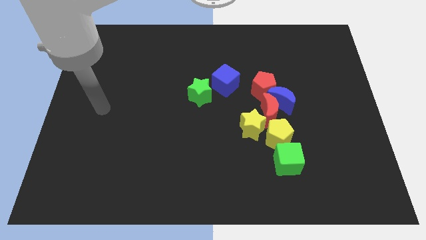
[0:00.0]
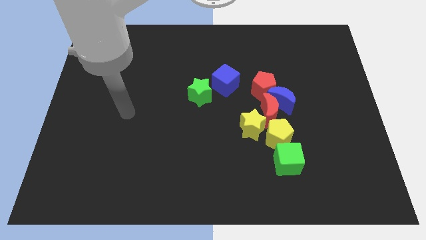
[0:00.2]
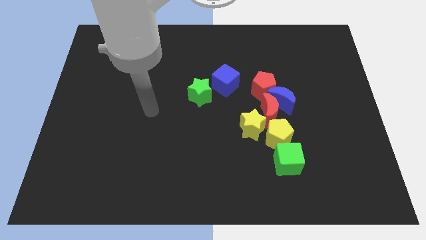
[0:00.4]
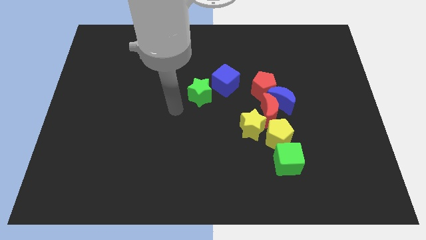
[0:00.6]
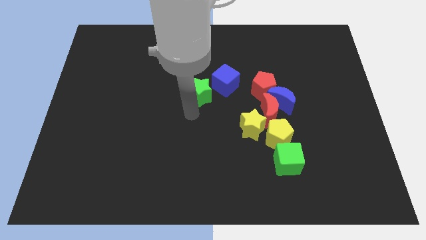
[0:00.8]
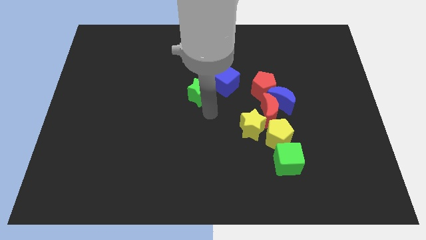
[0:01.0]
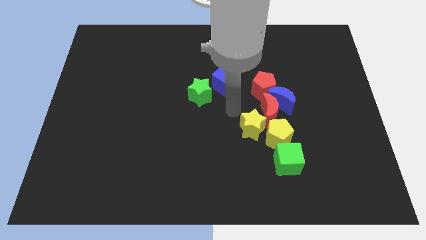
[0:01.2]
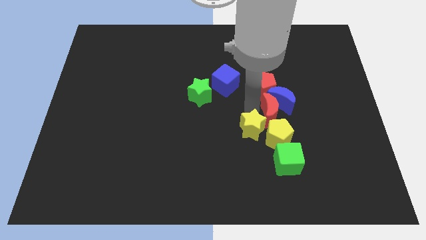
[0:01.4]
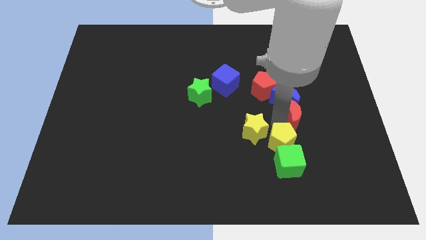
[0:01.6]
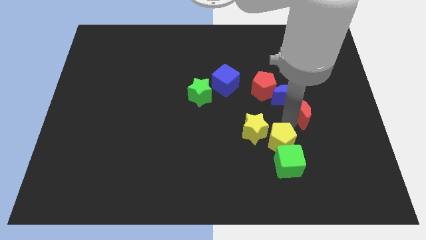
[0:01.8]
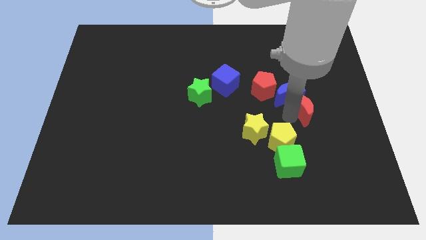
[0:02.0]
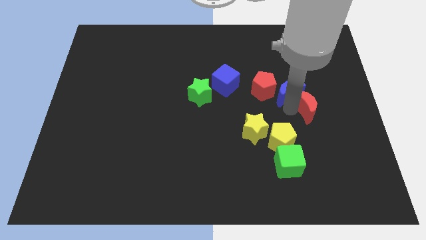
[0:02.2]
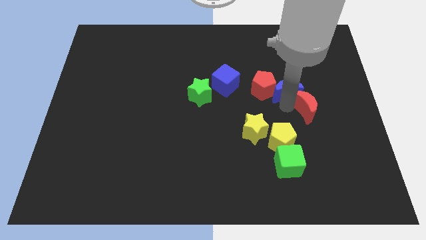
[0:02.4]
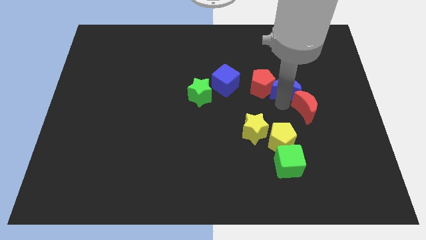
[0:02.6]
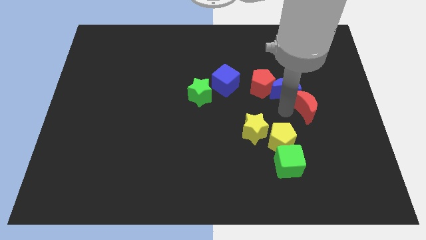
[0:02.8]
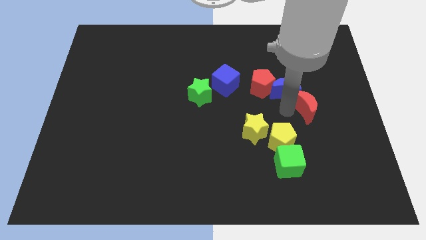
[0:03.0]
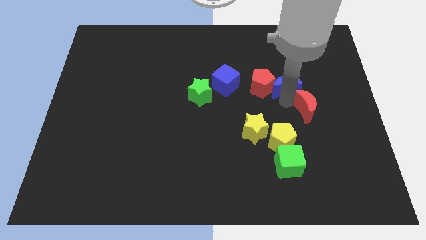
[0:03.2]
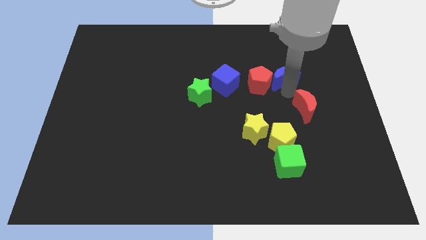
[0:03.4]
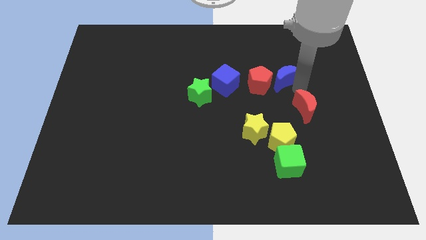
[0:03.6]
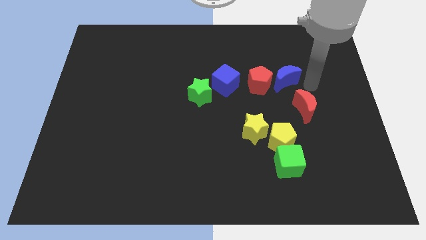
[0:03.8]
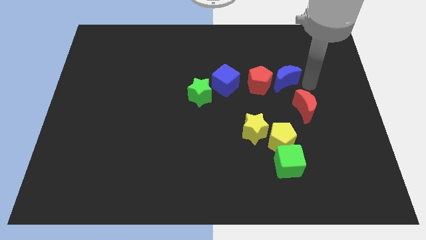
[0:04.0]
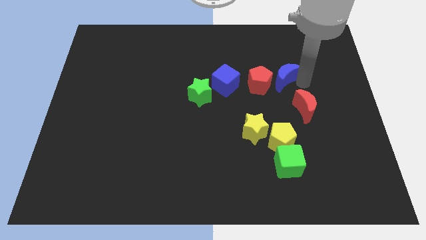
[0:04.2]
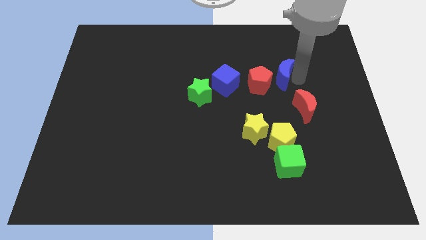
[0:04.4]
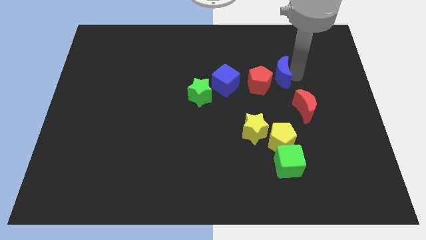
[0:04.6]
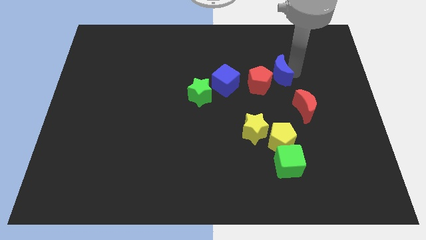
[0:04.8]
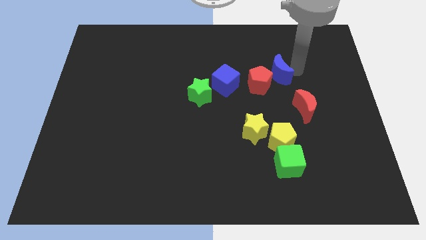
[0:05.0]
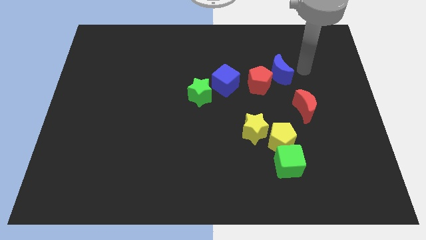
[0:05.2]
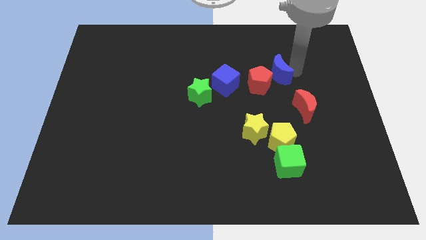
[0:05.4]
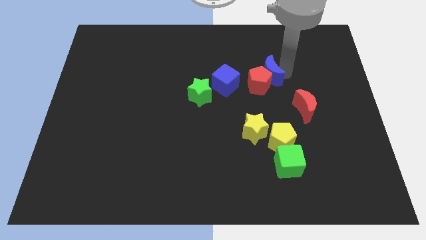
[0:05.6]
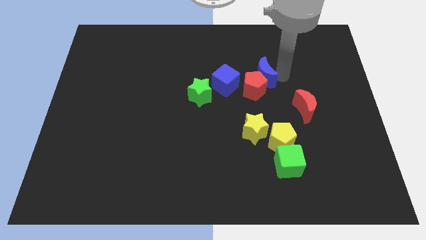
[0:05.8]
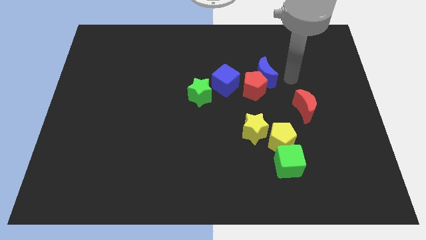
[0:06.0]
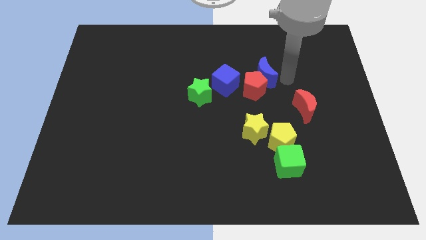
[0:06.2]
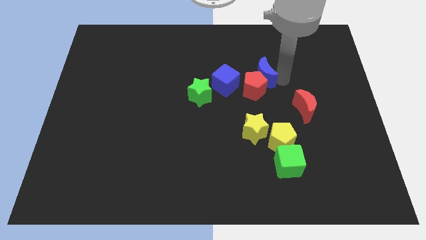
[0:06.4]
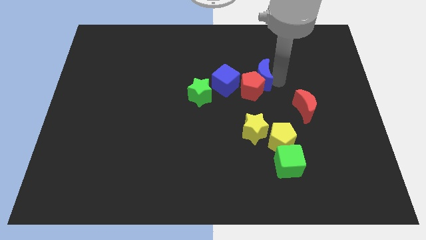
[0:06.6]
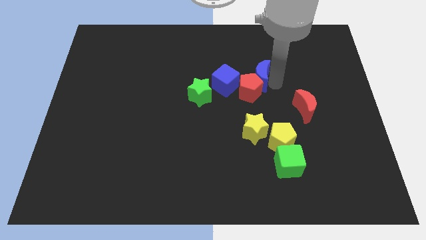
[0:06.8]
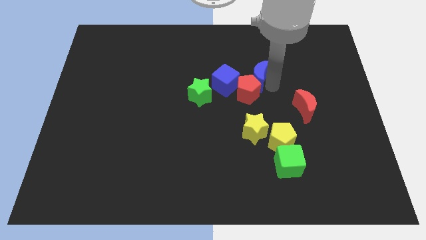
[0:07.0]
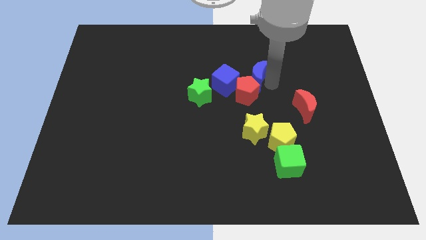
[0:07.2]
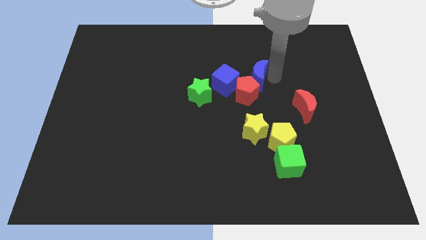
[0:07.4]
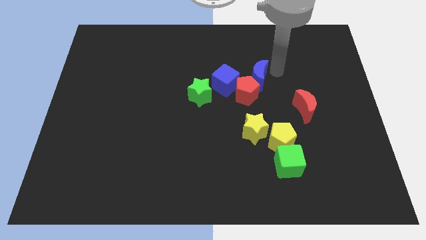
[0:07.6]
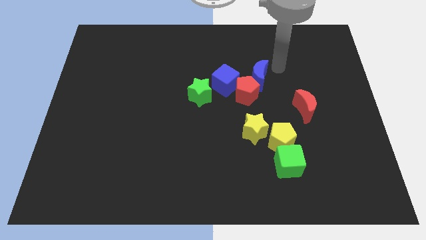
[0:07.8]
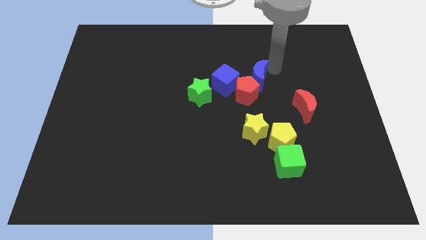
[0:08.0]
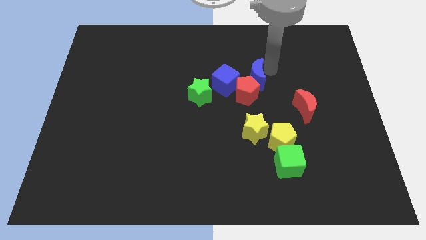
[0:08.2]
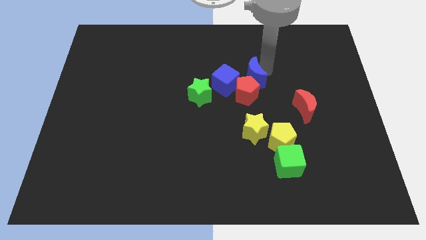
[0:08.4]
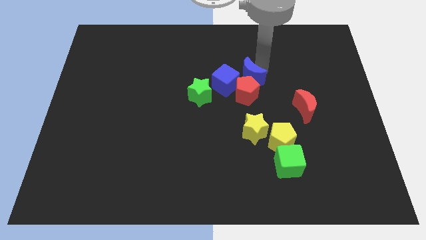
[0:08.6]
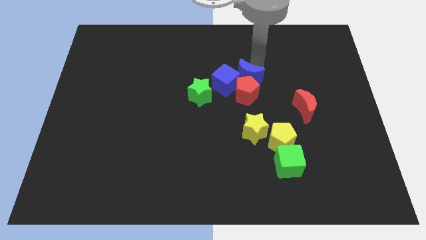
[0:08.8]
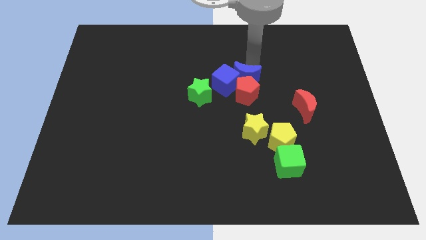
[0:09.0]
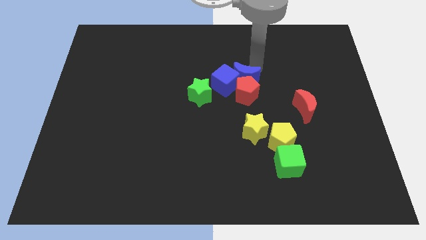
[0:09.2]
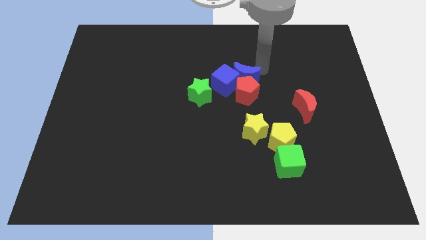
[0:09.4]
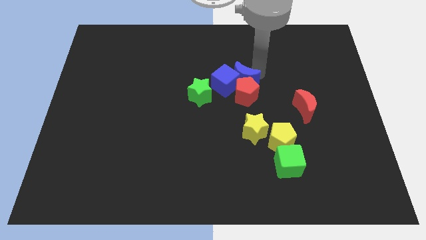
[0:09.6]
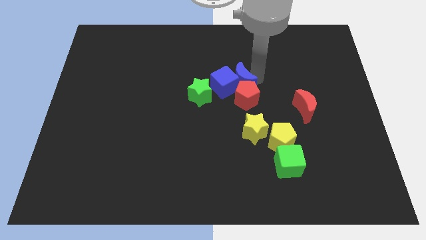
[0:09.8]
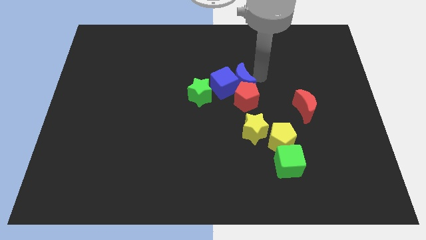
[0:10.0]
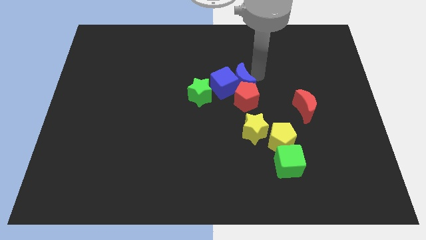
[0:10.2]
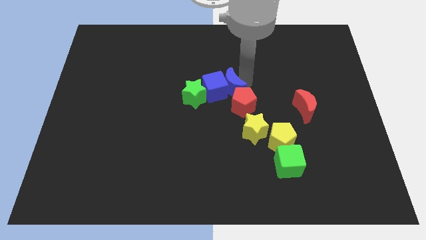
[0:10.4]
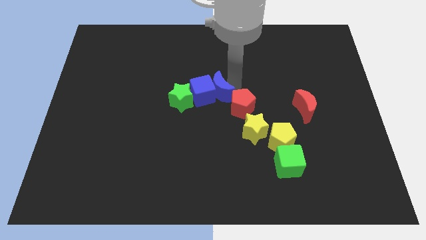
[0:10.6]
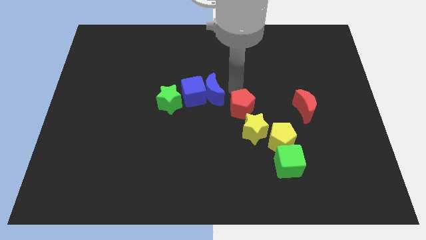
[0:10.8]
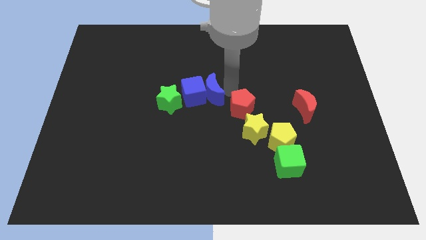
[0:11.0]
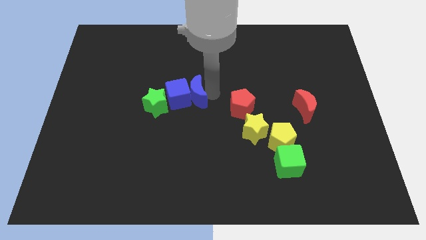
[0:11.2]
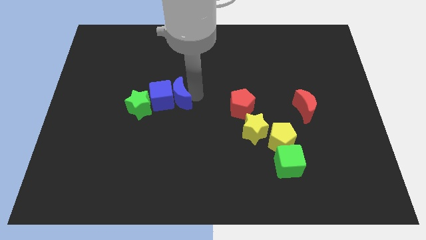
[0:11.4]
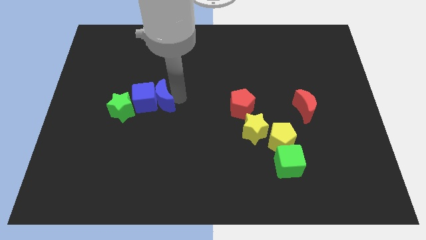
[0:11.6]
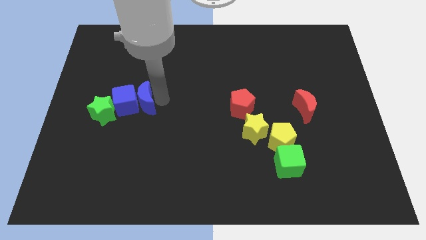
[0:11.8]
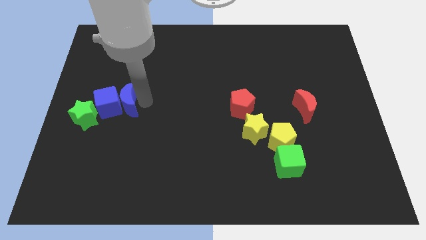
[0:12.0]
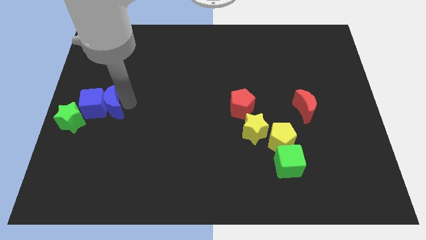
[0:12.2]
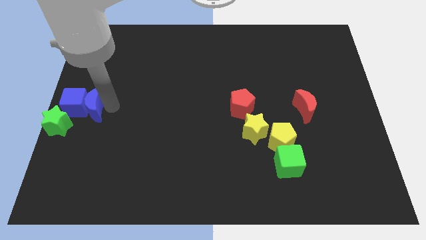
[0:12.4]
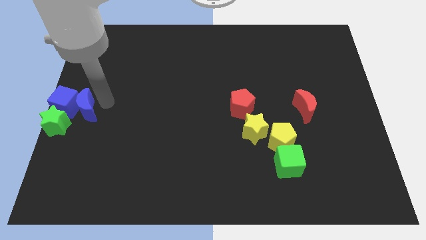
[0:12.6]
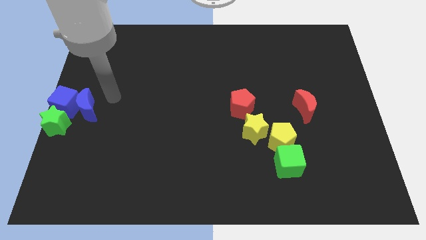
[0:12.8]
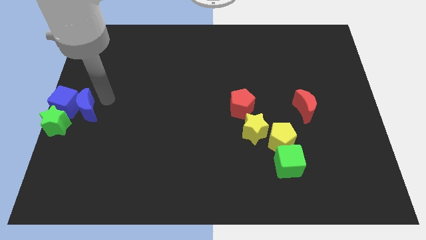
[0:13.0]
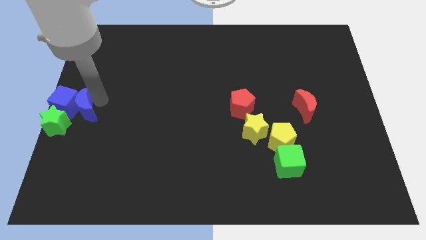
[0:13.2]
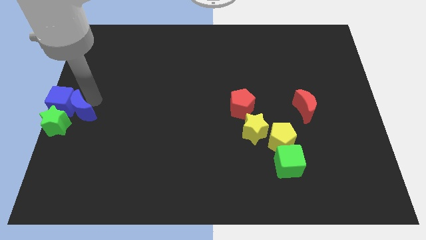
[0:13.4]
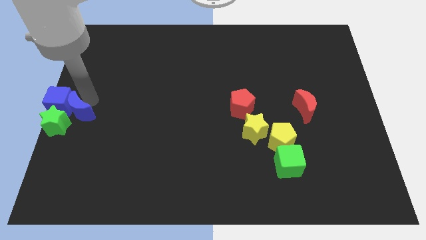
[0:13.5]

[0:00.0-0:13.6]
slide the blue moon close to the green star
